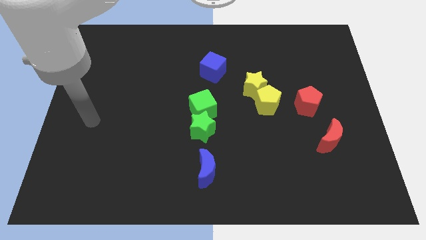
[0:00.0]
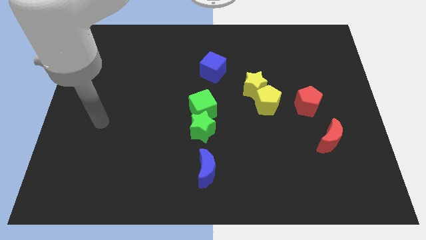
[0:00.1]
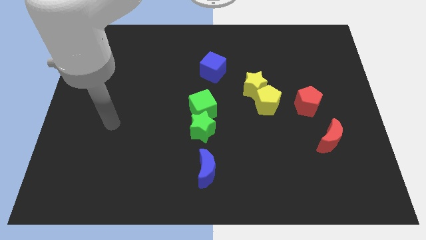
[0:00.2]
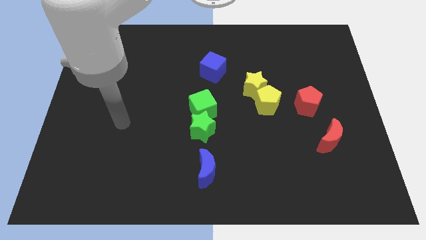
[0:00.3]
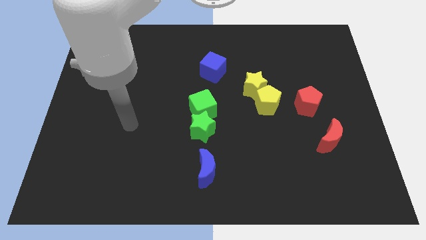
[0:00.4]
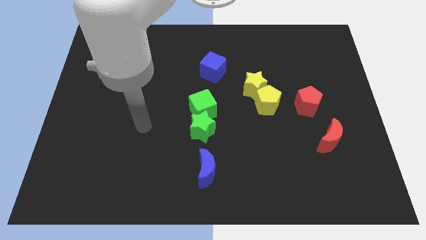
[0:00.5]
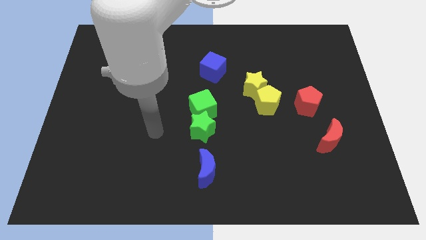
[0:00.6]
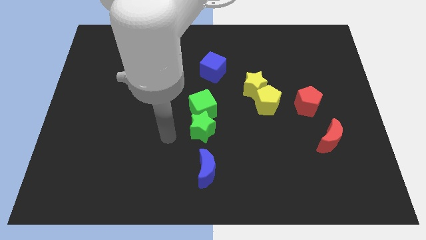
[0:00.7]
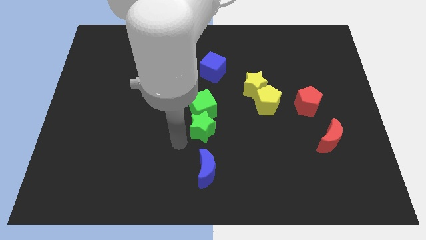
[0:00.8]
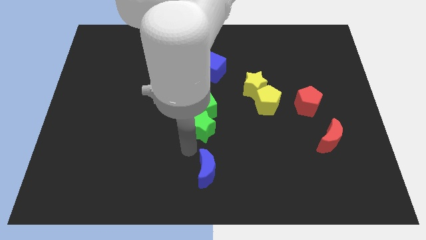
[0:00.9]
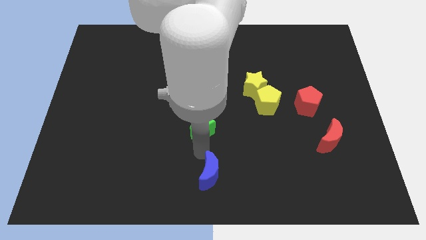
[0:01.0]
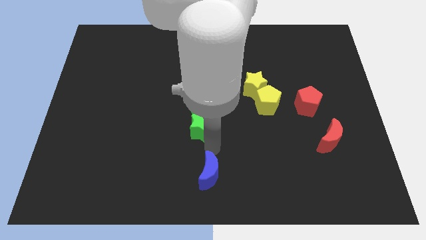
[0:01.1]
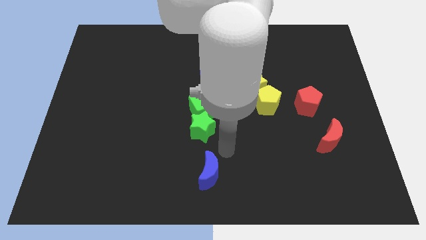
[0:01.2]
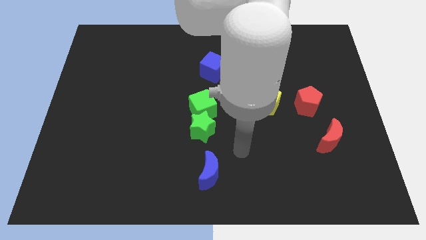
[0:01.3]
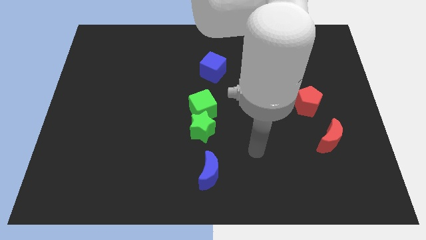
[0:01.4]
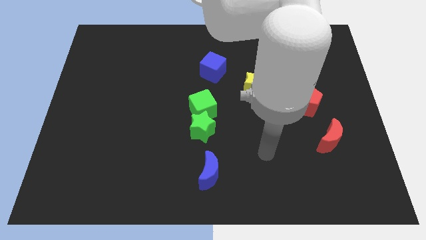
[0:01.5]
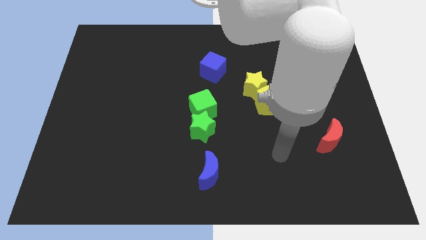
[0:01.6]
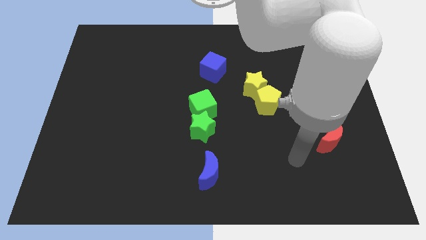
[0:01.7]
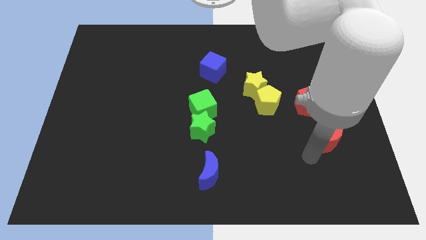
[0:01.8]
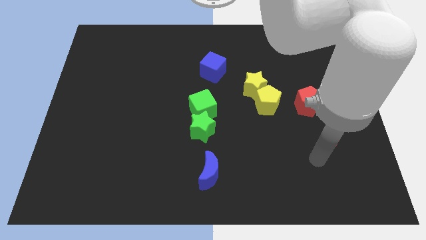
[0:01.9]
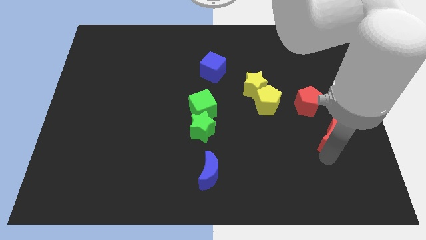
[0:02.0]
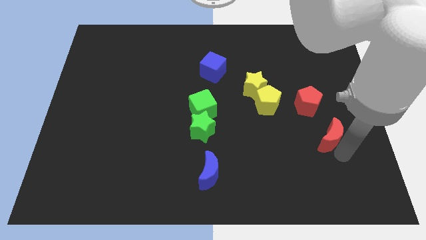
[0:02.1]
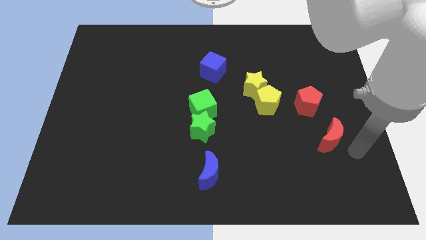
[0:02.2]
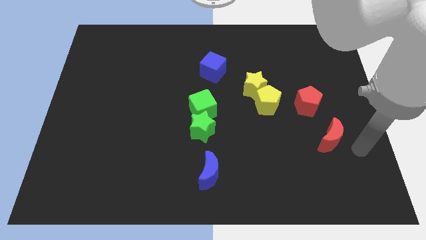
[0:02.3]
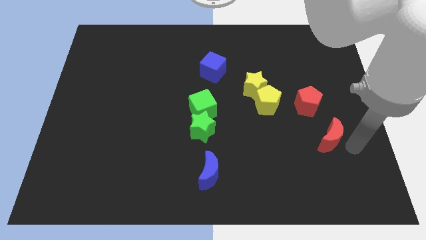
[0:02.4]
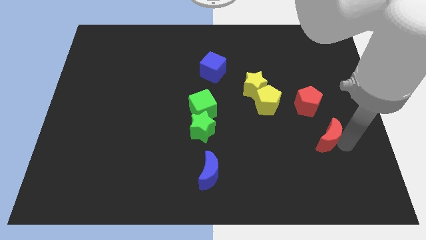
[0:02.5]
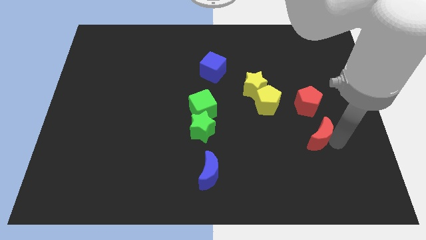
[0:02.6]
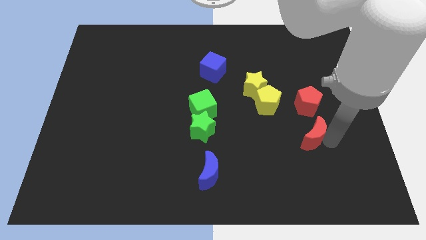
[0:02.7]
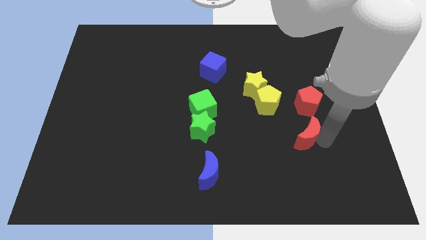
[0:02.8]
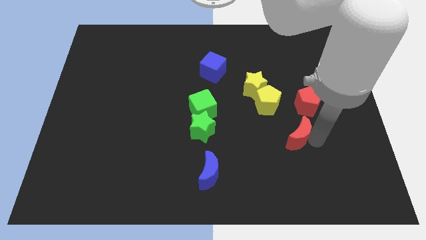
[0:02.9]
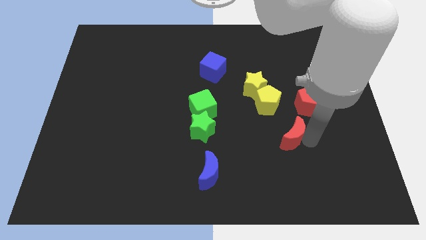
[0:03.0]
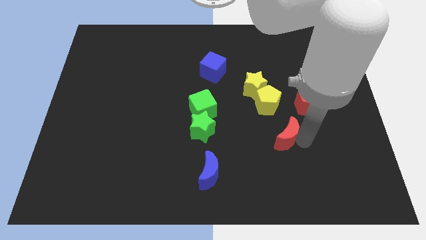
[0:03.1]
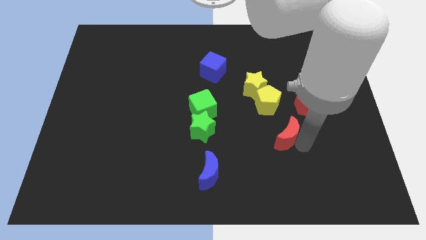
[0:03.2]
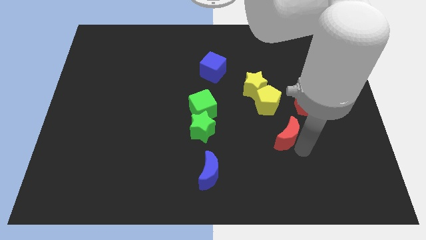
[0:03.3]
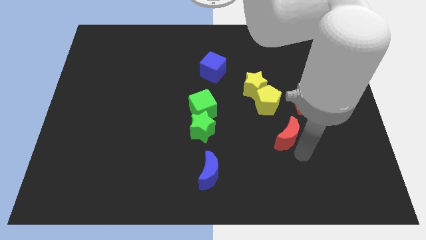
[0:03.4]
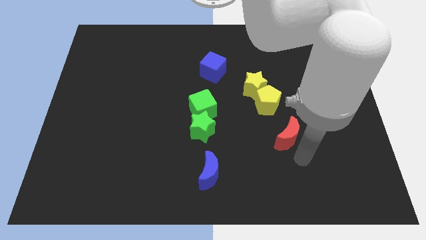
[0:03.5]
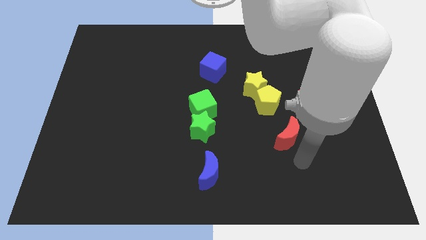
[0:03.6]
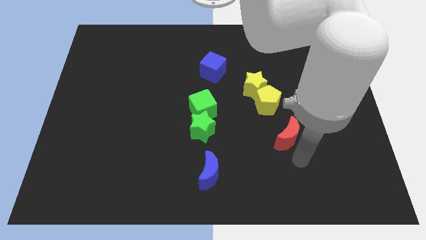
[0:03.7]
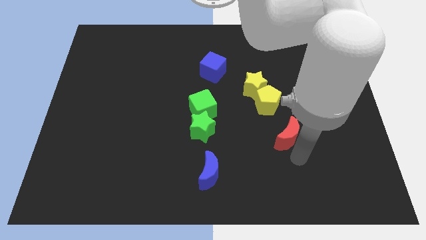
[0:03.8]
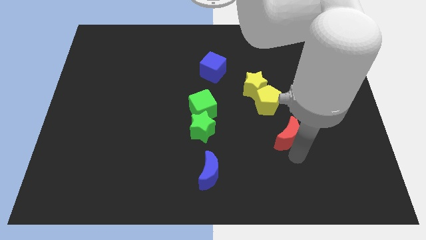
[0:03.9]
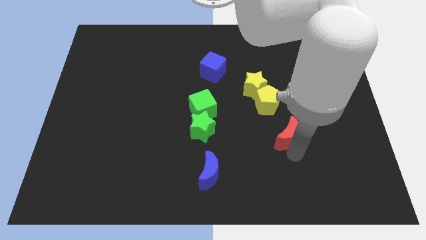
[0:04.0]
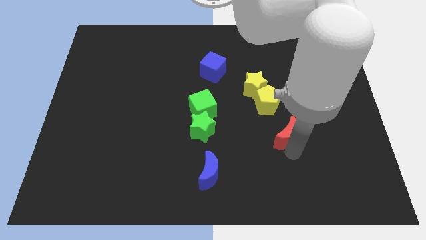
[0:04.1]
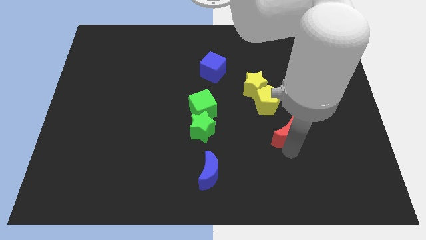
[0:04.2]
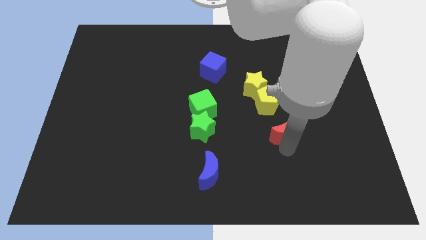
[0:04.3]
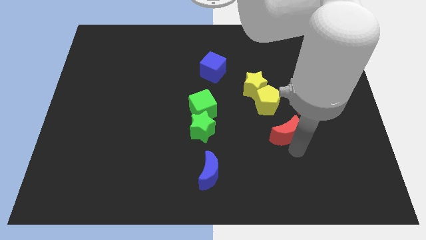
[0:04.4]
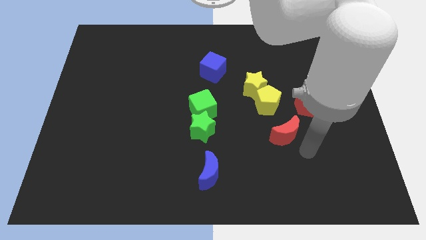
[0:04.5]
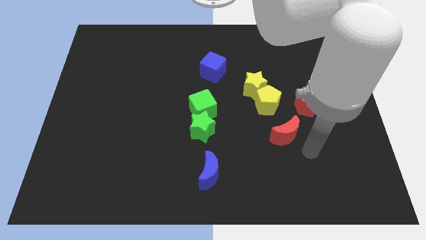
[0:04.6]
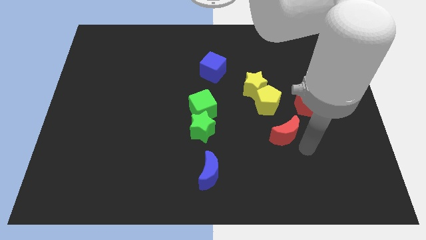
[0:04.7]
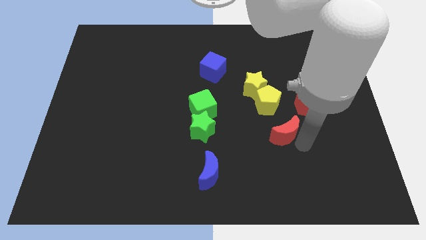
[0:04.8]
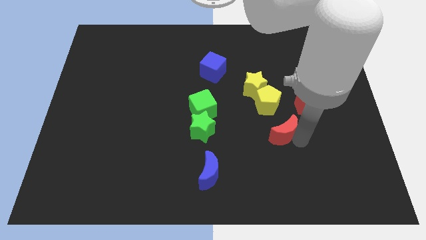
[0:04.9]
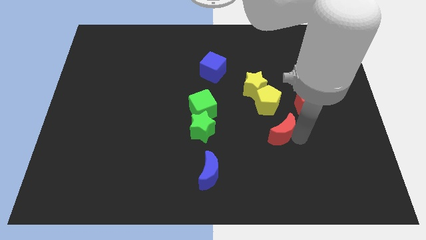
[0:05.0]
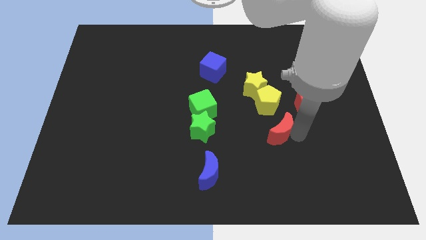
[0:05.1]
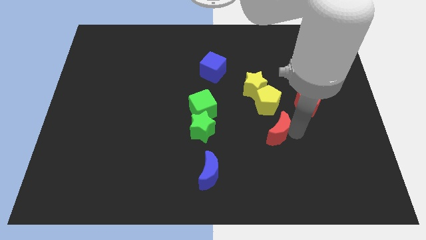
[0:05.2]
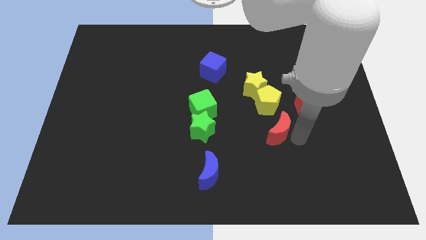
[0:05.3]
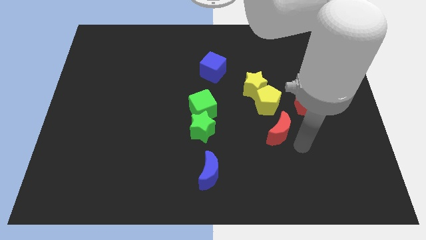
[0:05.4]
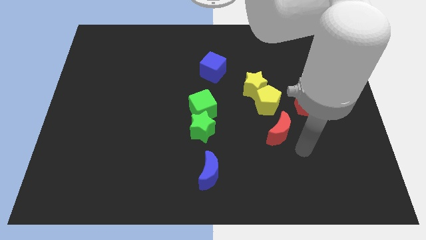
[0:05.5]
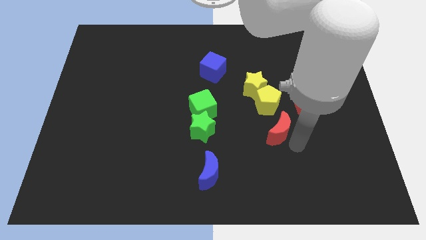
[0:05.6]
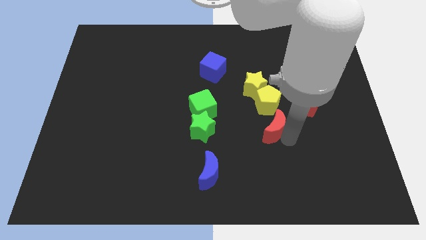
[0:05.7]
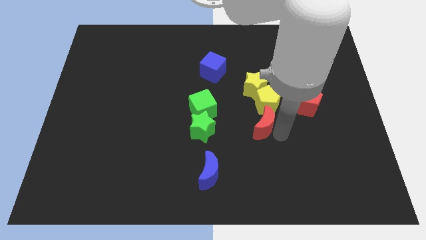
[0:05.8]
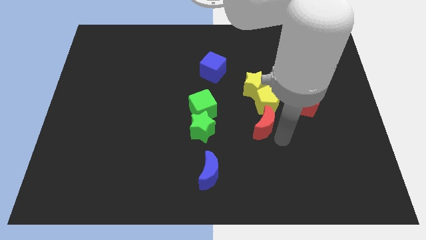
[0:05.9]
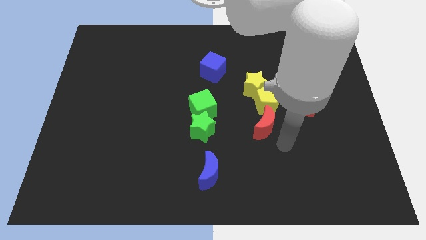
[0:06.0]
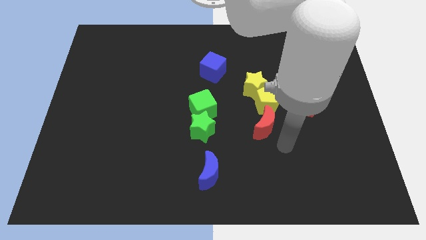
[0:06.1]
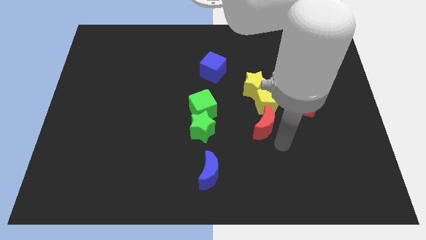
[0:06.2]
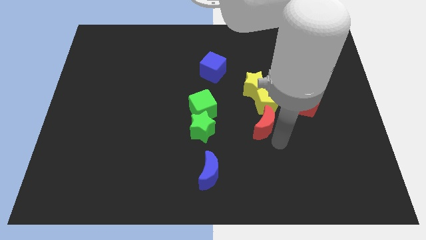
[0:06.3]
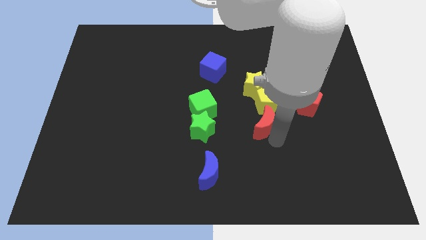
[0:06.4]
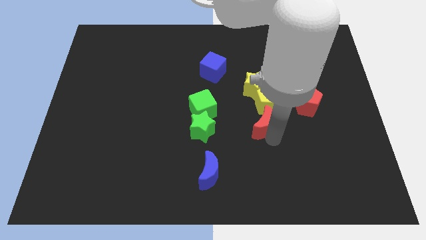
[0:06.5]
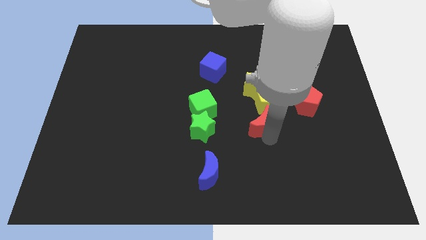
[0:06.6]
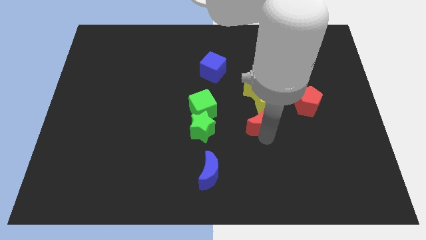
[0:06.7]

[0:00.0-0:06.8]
push the red moon right of the green cube
